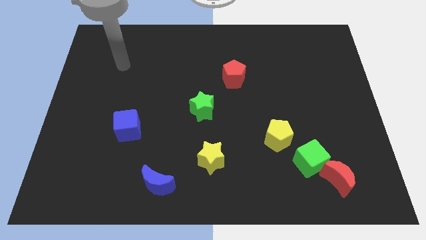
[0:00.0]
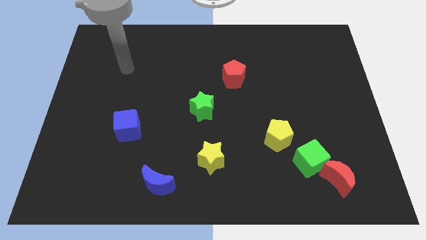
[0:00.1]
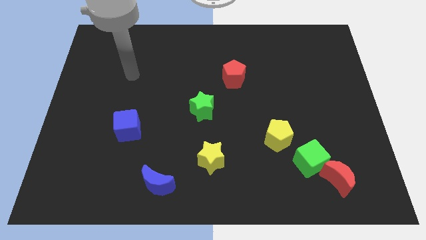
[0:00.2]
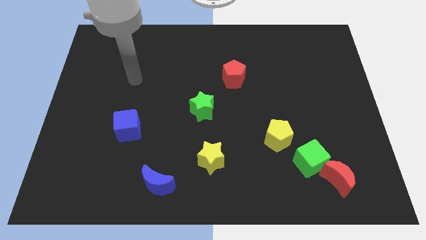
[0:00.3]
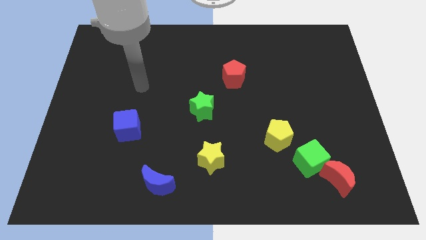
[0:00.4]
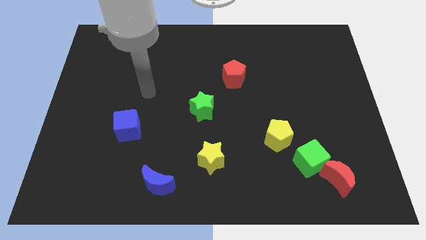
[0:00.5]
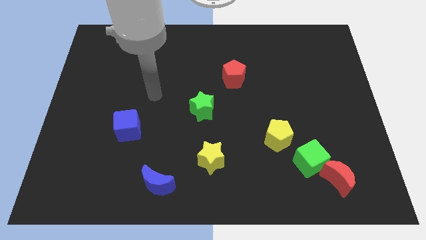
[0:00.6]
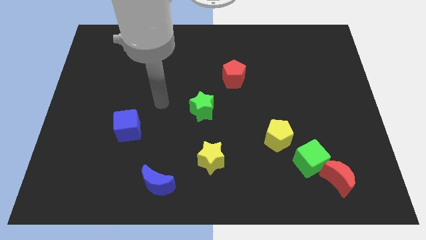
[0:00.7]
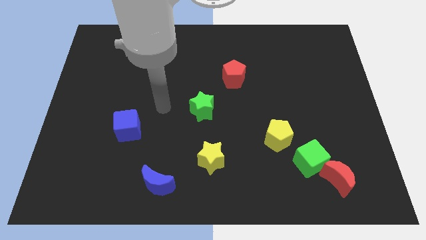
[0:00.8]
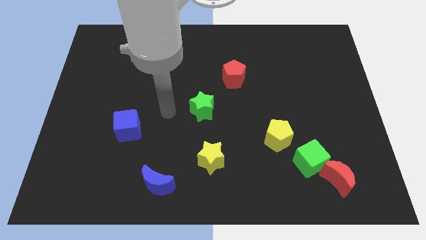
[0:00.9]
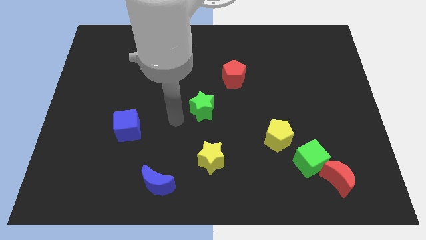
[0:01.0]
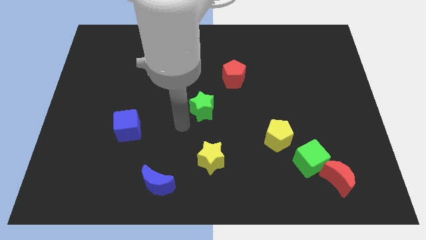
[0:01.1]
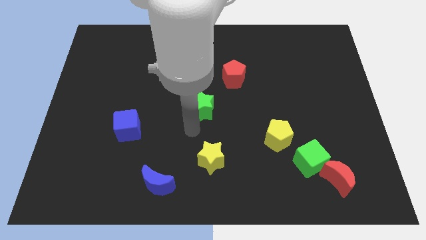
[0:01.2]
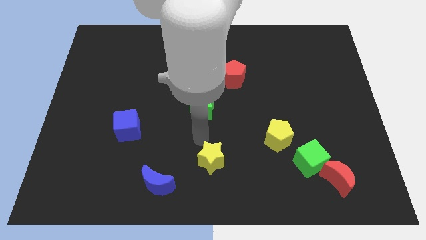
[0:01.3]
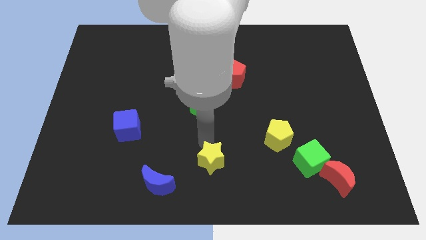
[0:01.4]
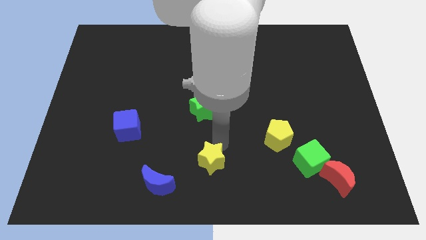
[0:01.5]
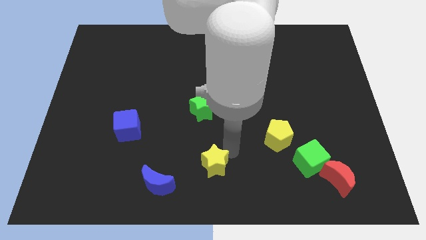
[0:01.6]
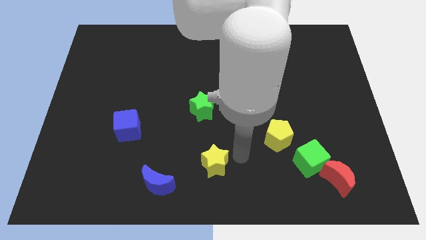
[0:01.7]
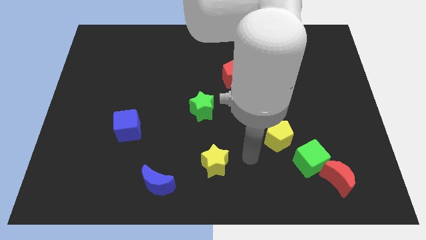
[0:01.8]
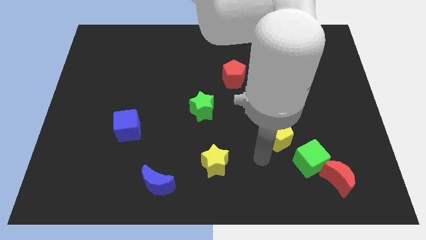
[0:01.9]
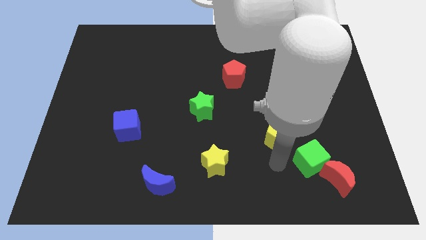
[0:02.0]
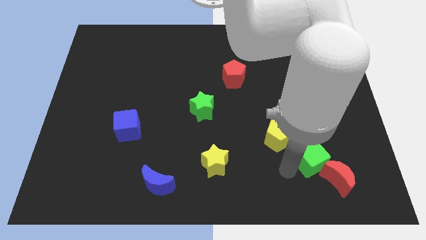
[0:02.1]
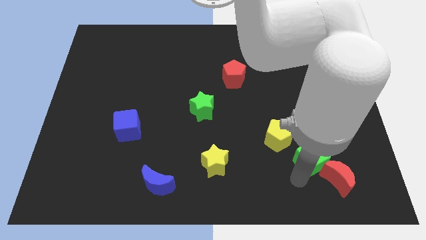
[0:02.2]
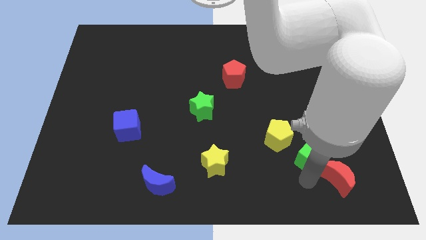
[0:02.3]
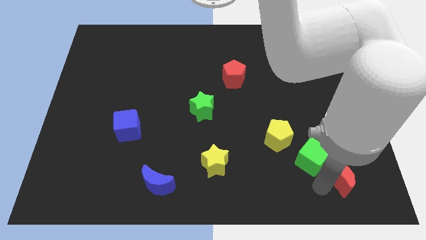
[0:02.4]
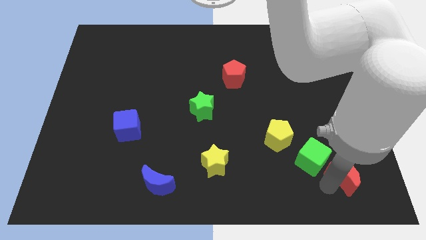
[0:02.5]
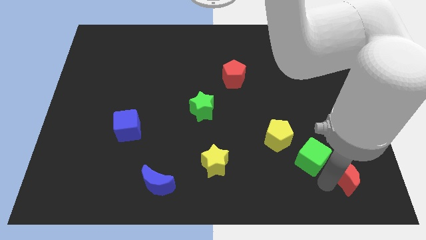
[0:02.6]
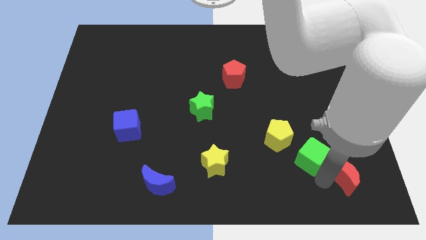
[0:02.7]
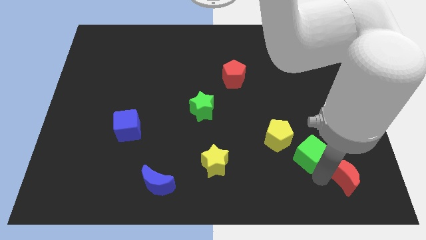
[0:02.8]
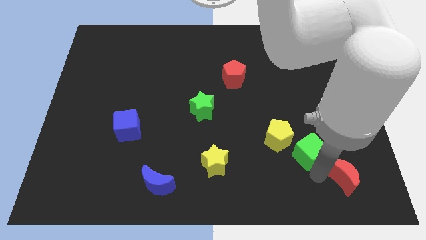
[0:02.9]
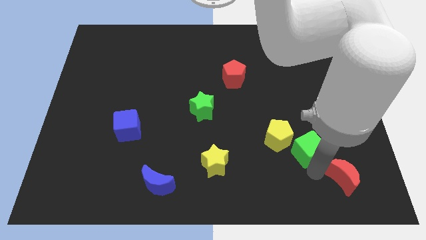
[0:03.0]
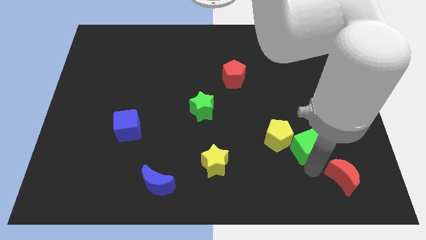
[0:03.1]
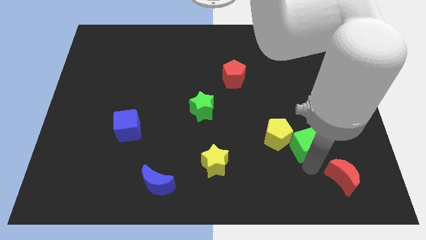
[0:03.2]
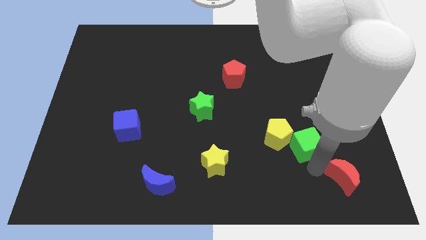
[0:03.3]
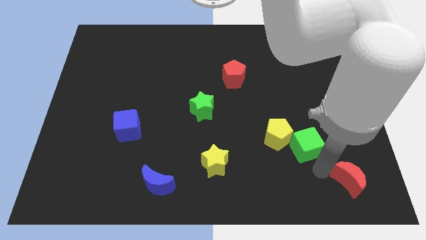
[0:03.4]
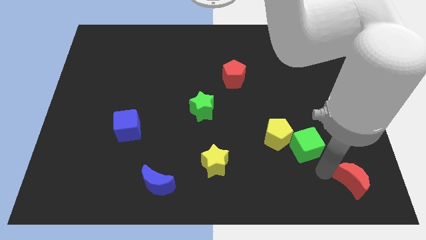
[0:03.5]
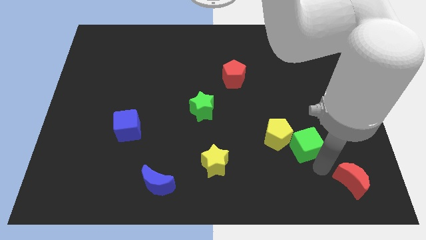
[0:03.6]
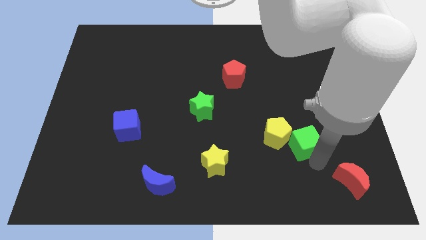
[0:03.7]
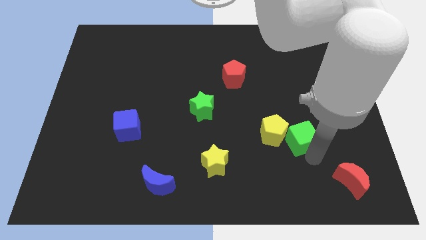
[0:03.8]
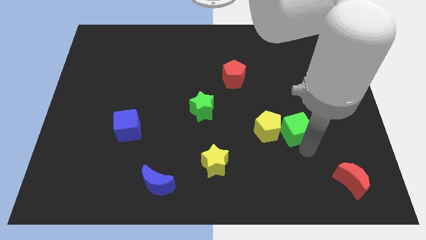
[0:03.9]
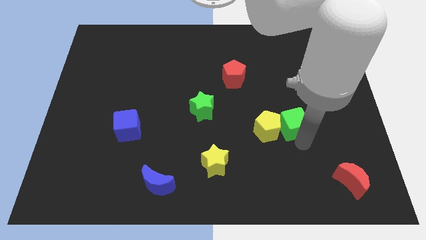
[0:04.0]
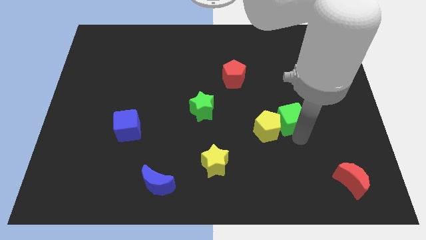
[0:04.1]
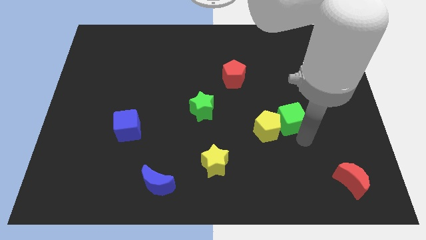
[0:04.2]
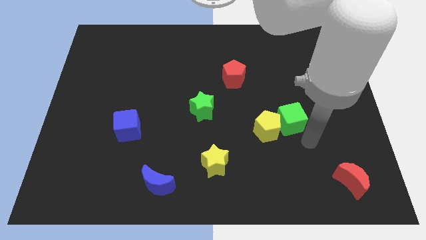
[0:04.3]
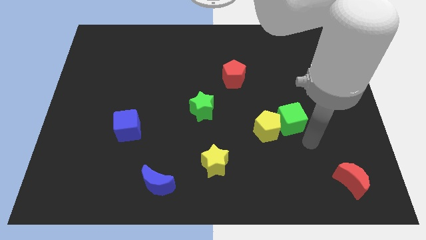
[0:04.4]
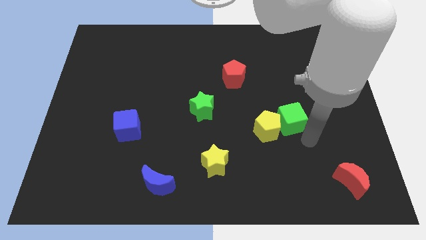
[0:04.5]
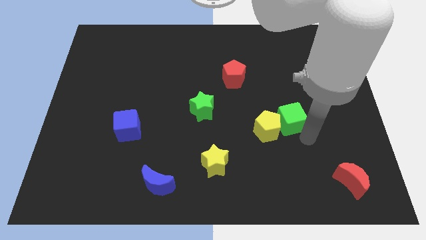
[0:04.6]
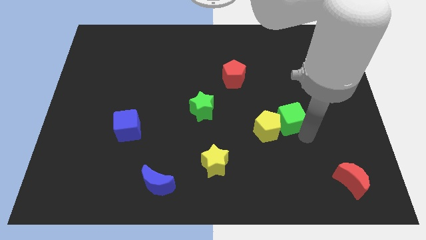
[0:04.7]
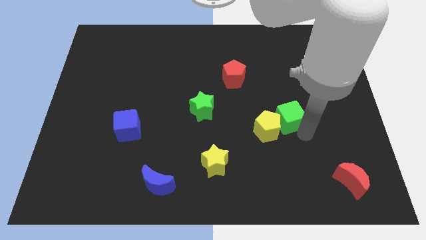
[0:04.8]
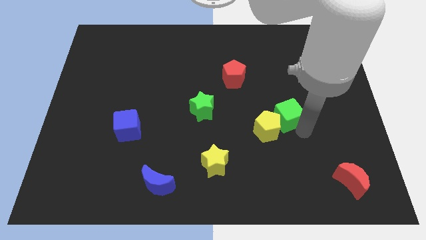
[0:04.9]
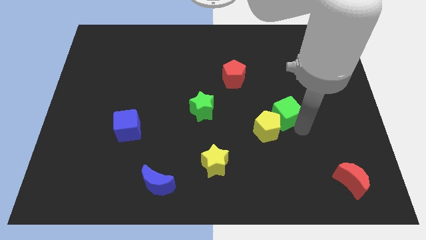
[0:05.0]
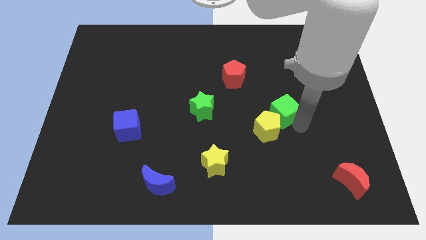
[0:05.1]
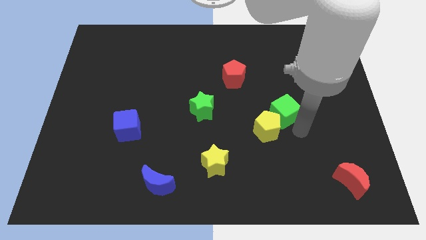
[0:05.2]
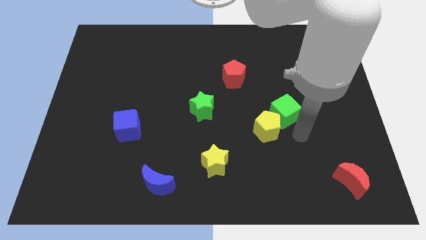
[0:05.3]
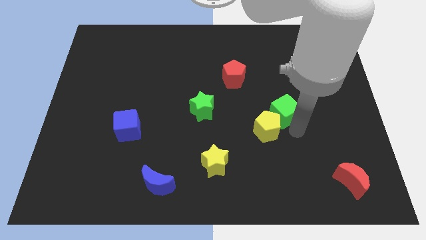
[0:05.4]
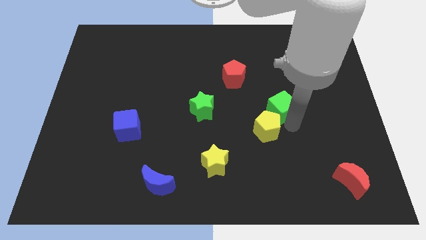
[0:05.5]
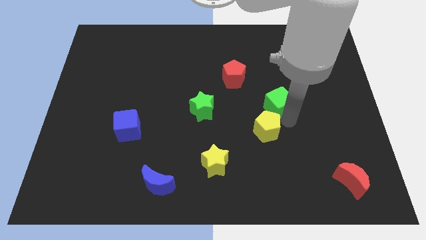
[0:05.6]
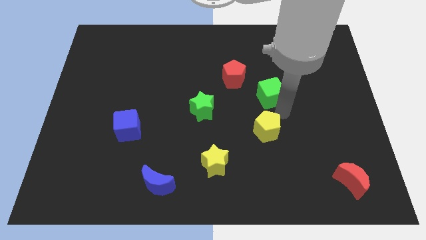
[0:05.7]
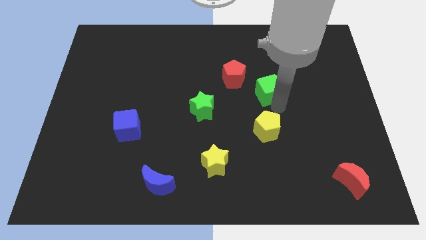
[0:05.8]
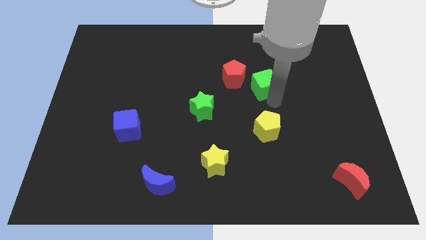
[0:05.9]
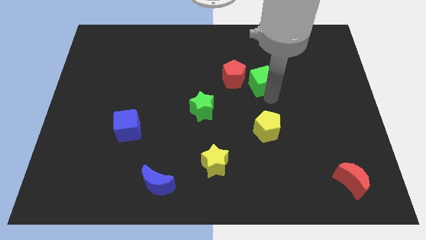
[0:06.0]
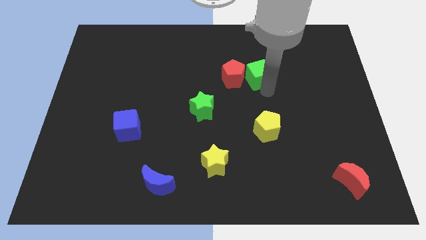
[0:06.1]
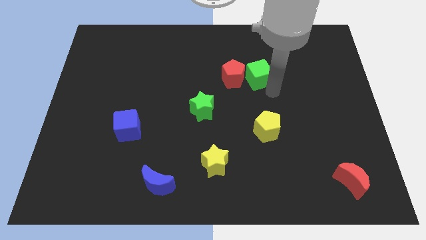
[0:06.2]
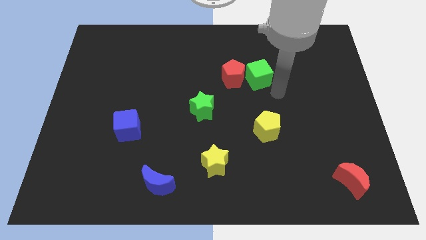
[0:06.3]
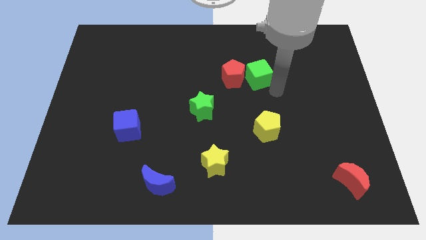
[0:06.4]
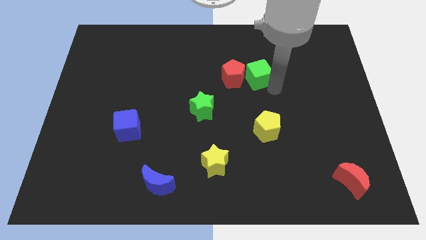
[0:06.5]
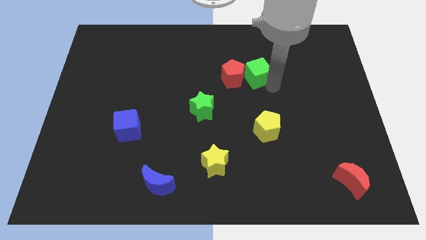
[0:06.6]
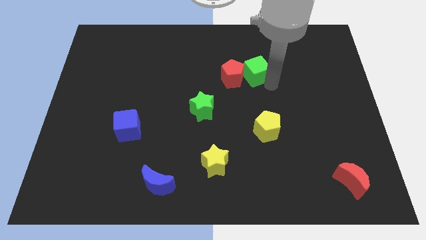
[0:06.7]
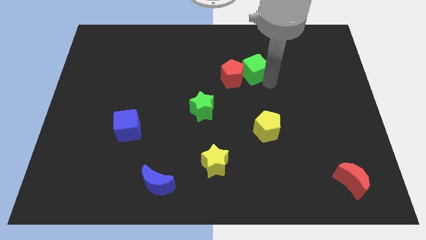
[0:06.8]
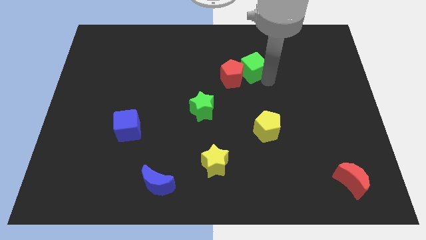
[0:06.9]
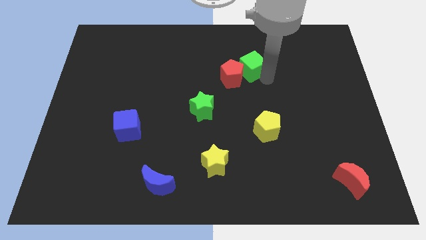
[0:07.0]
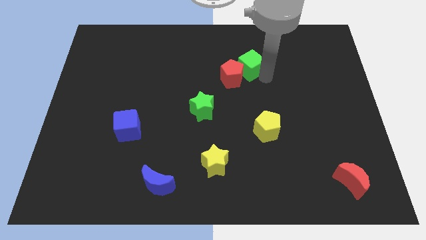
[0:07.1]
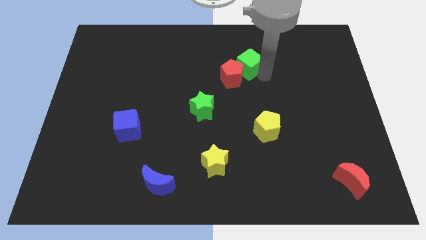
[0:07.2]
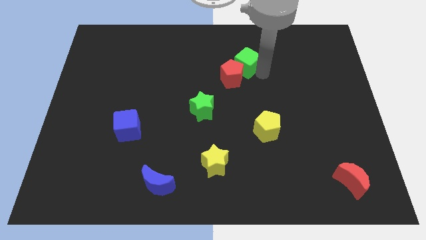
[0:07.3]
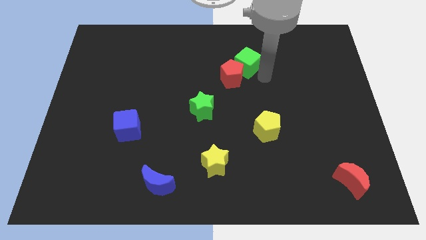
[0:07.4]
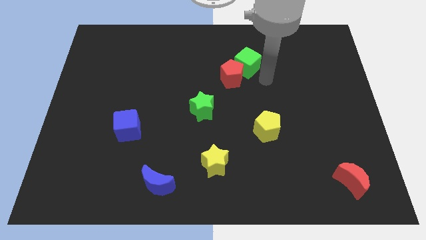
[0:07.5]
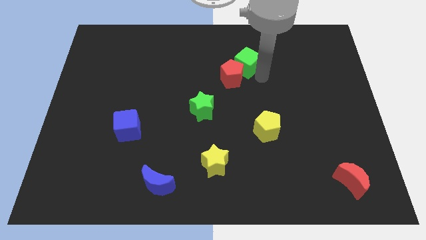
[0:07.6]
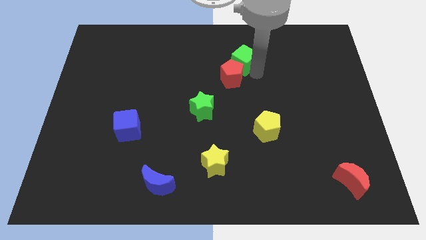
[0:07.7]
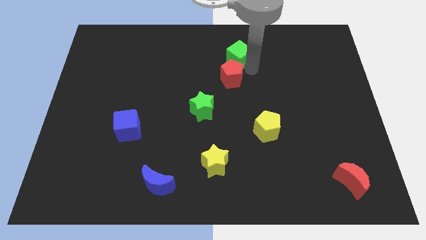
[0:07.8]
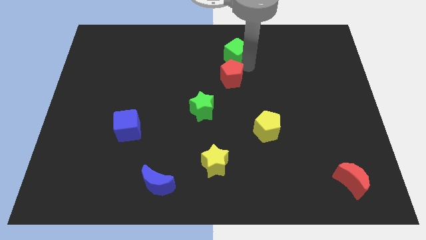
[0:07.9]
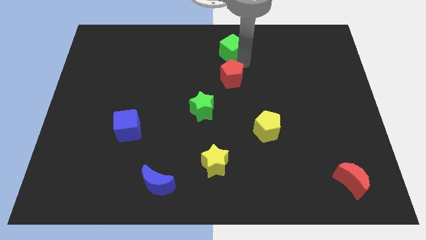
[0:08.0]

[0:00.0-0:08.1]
move the green cube to the towards your base
